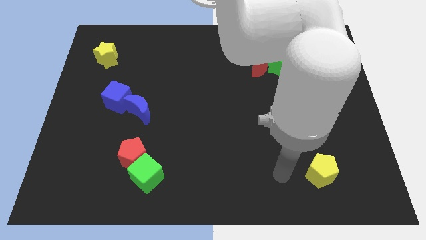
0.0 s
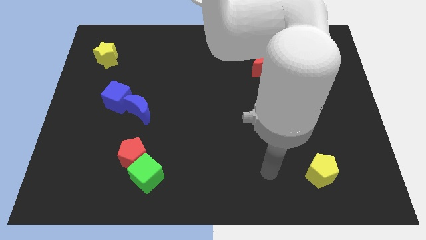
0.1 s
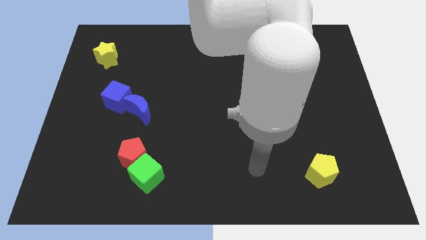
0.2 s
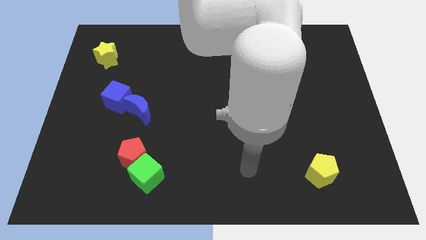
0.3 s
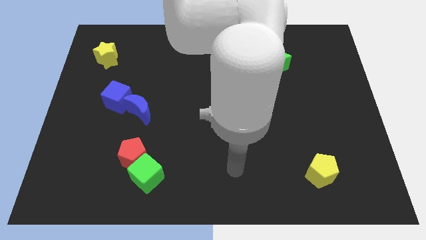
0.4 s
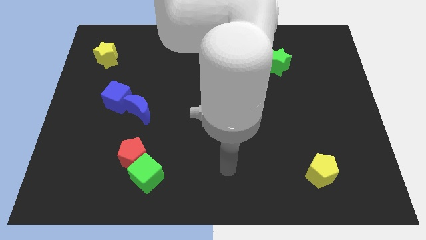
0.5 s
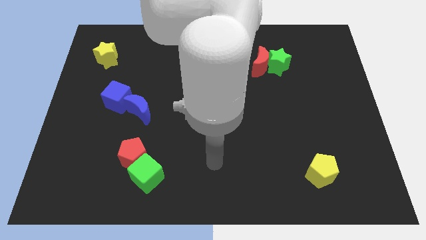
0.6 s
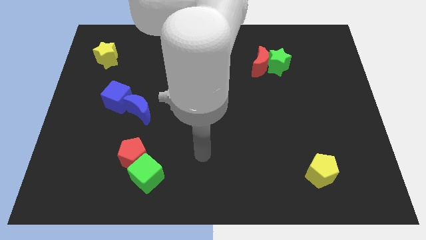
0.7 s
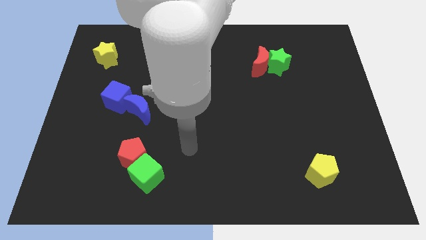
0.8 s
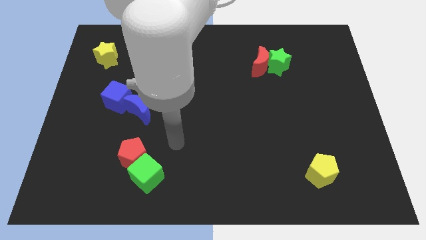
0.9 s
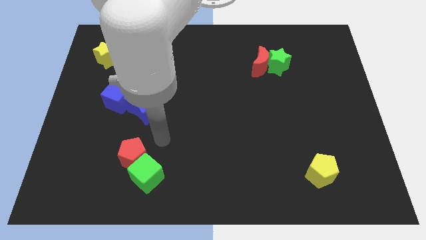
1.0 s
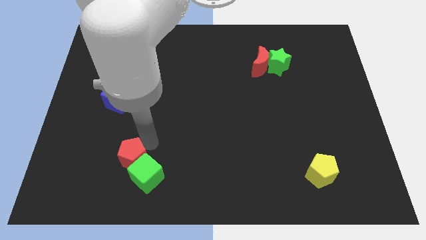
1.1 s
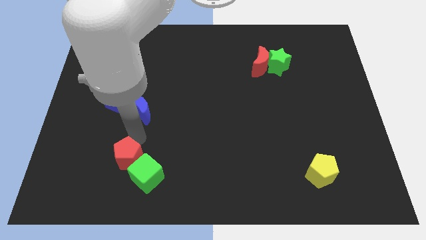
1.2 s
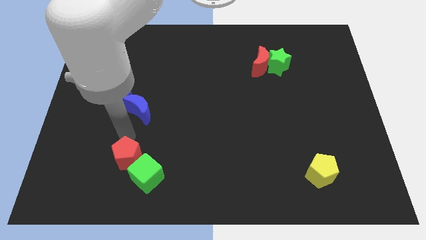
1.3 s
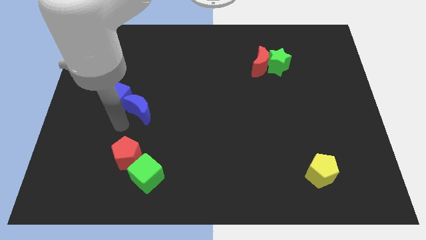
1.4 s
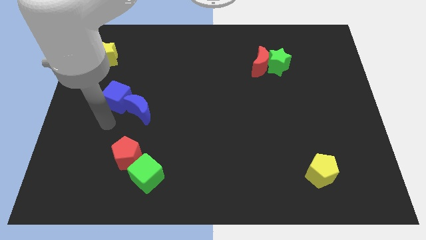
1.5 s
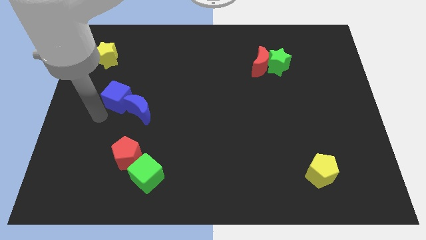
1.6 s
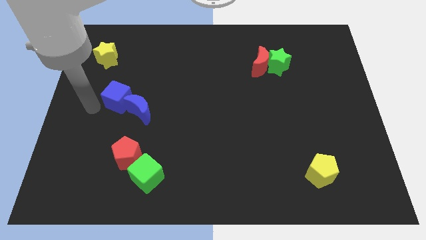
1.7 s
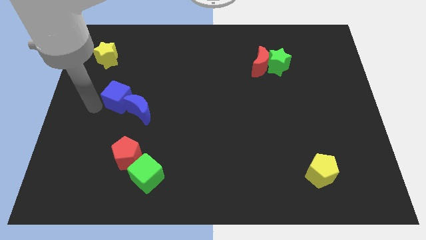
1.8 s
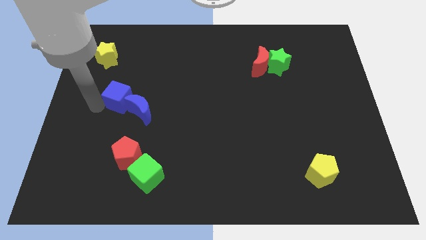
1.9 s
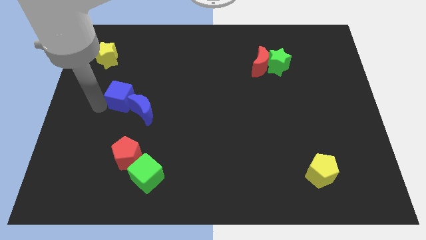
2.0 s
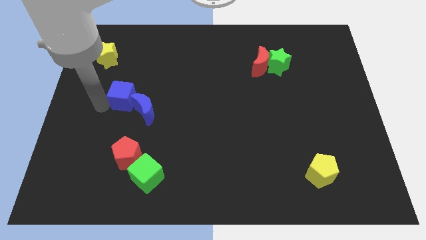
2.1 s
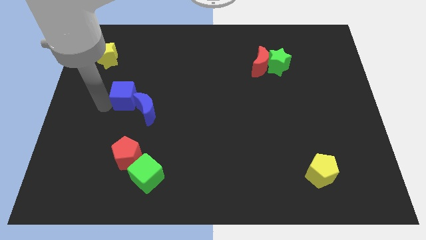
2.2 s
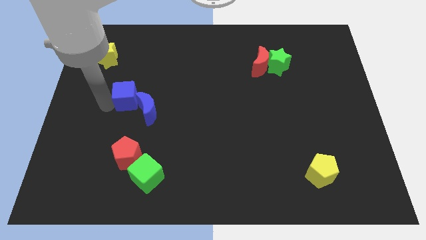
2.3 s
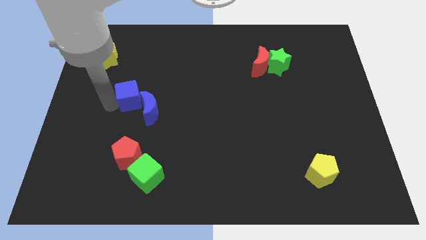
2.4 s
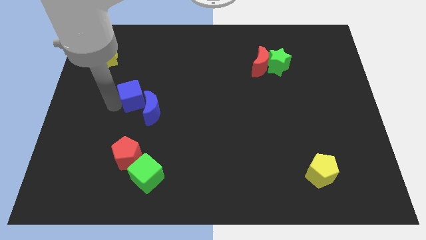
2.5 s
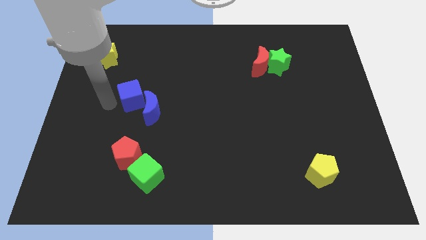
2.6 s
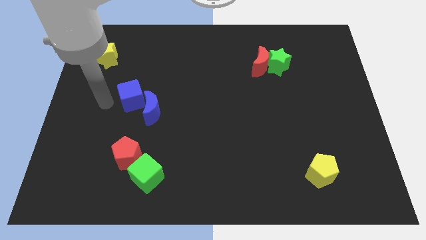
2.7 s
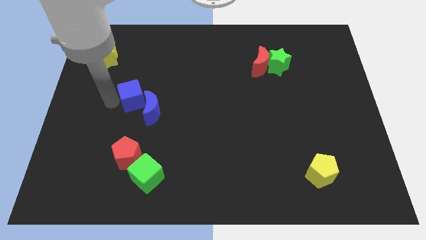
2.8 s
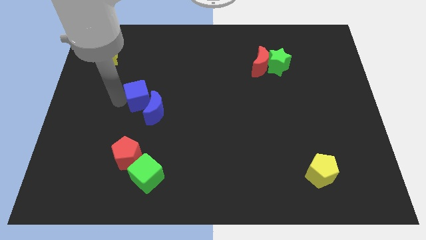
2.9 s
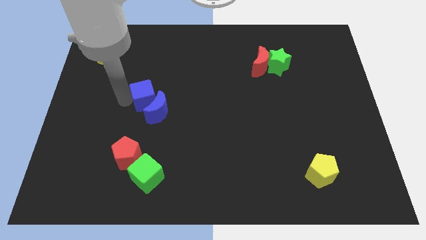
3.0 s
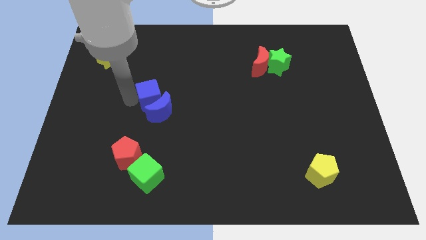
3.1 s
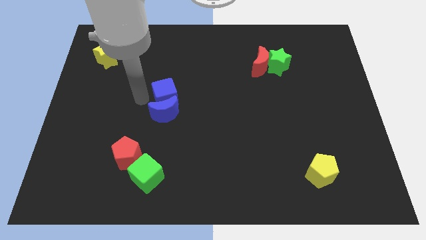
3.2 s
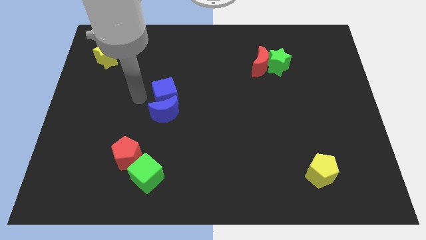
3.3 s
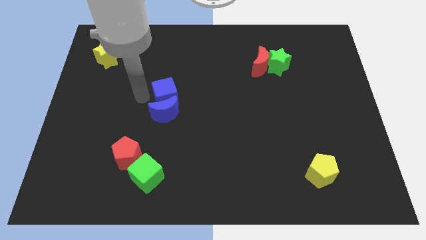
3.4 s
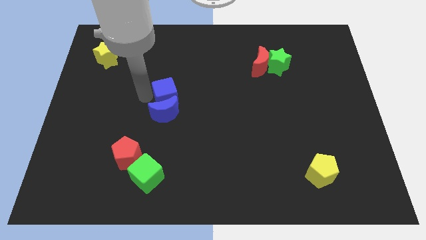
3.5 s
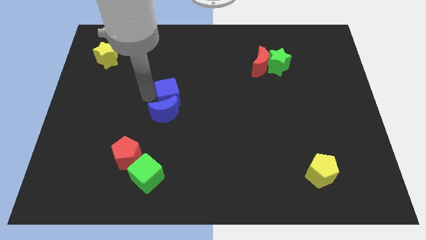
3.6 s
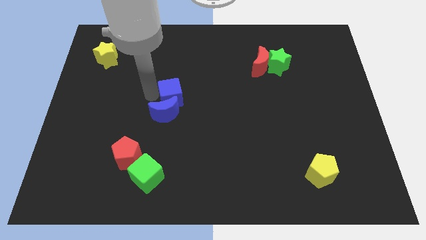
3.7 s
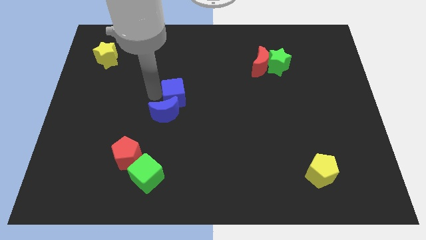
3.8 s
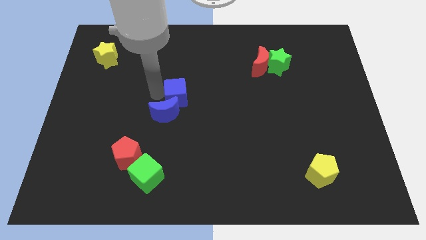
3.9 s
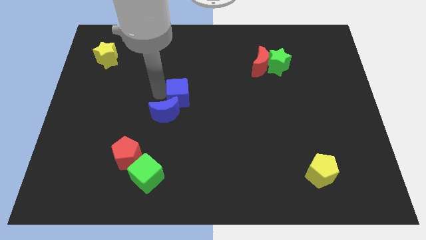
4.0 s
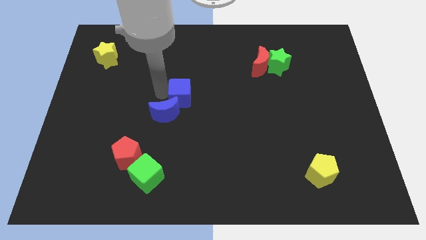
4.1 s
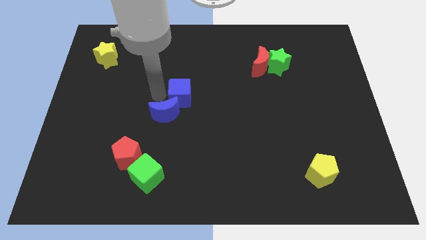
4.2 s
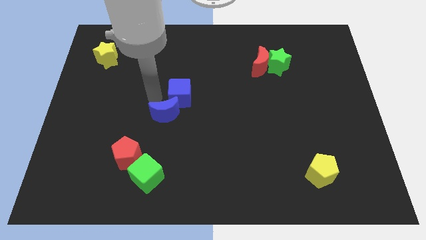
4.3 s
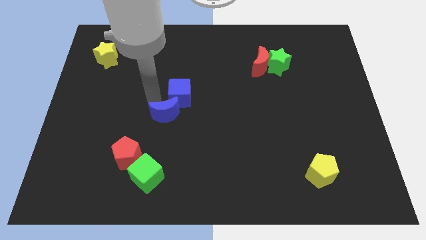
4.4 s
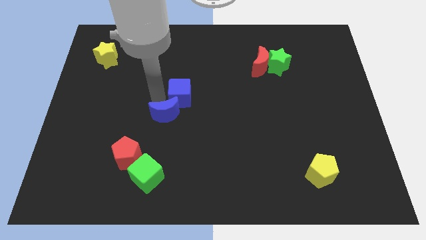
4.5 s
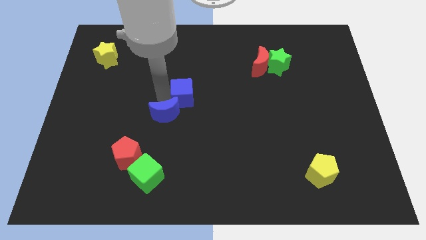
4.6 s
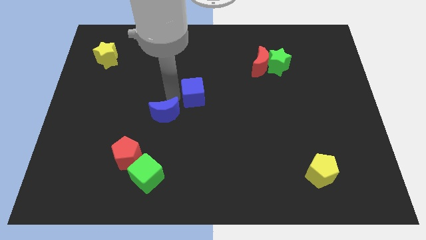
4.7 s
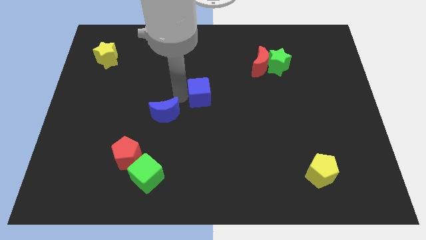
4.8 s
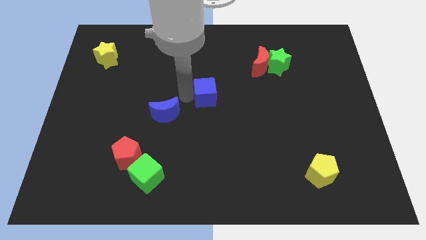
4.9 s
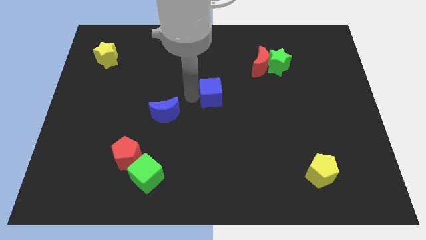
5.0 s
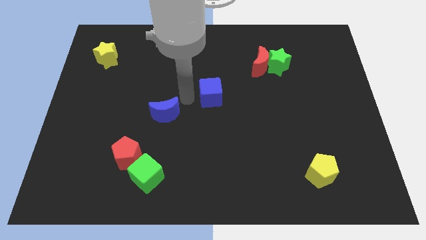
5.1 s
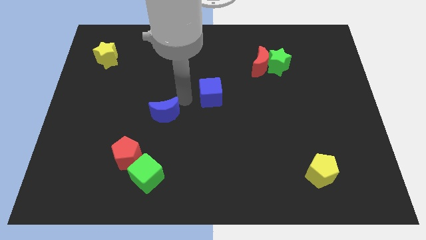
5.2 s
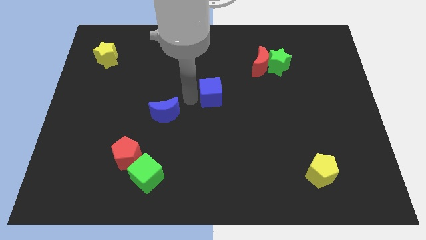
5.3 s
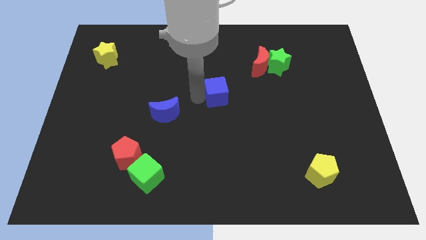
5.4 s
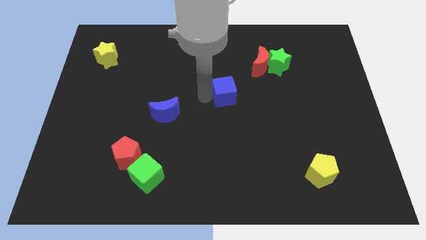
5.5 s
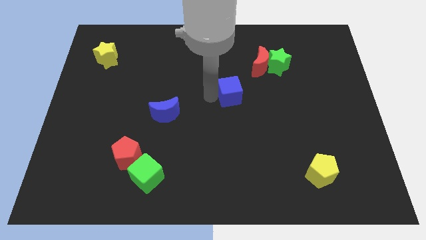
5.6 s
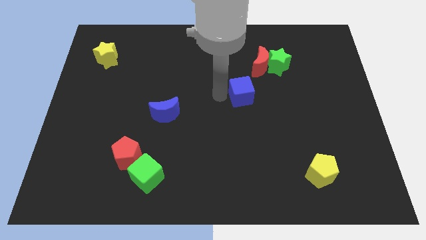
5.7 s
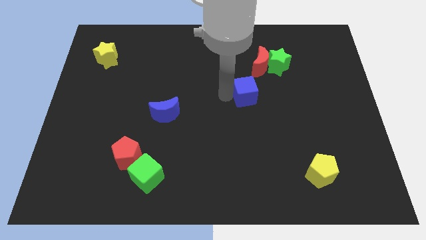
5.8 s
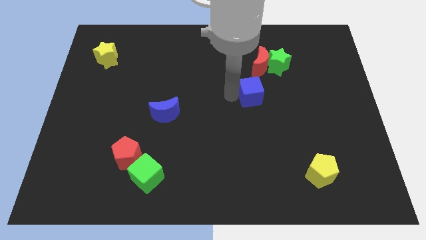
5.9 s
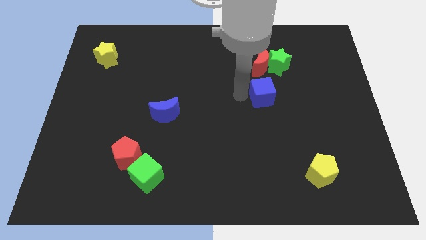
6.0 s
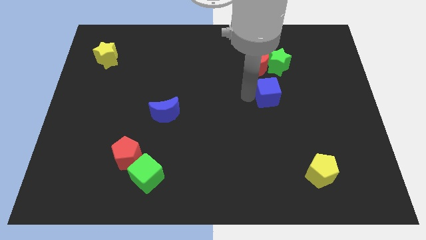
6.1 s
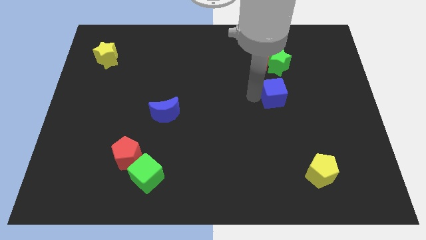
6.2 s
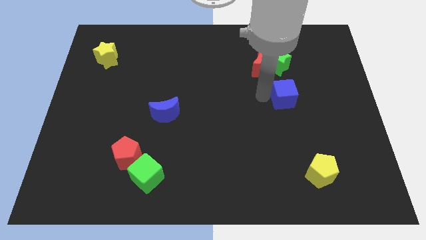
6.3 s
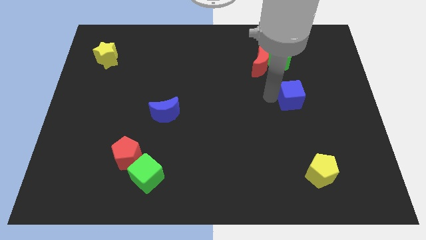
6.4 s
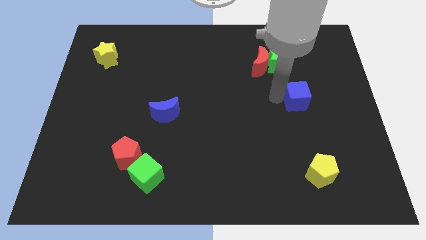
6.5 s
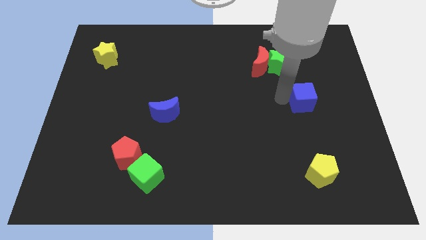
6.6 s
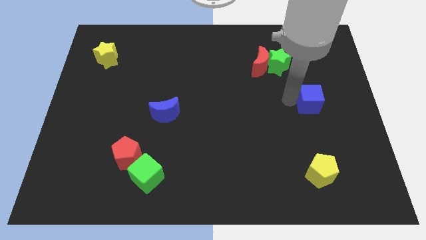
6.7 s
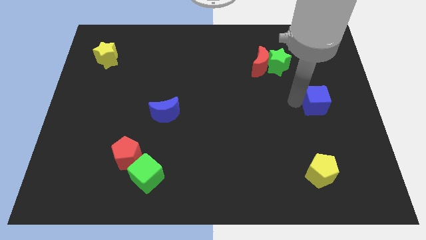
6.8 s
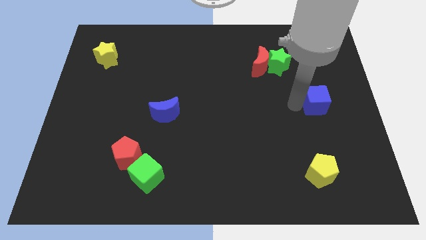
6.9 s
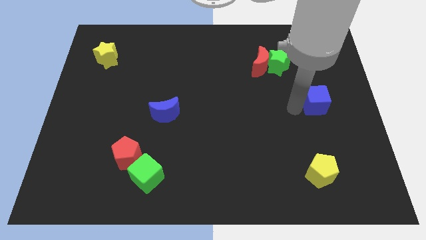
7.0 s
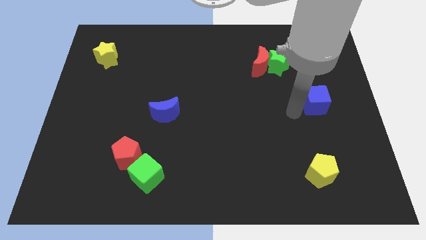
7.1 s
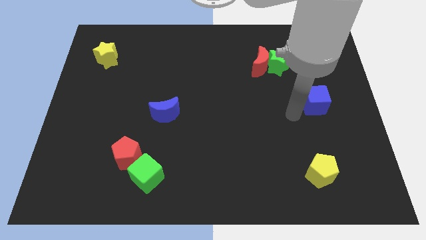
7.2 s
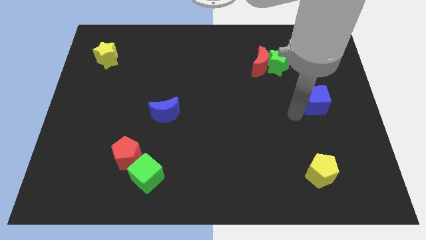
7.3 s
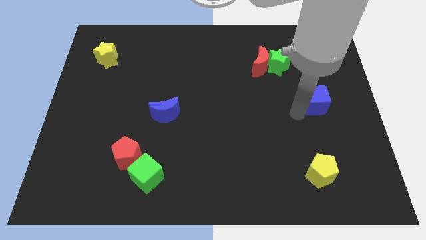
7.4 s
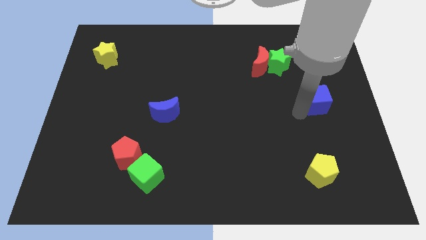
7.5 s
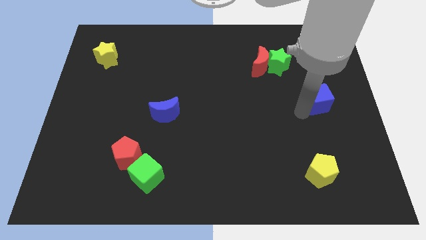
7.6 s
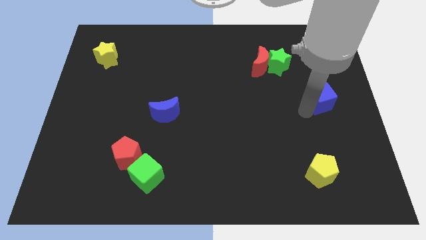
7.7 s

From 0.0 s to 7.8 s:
slide the blue cube to the center right
